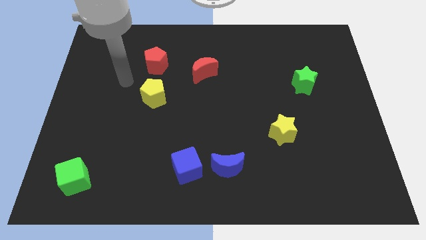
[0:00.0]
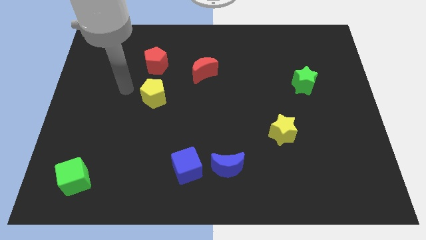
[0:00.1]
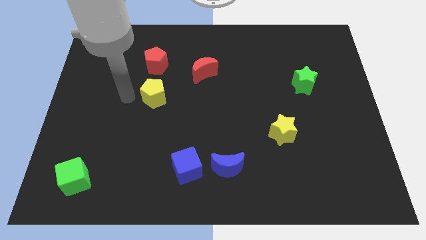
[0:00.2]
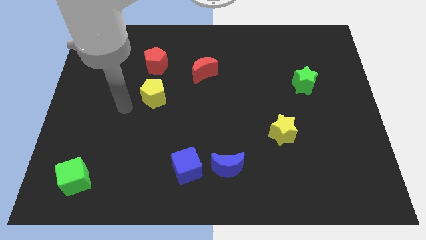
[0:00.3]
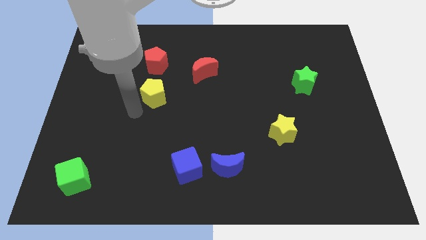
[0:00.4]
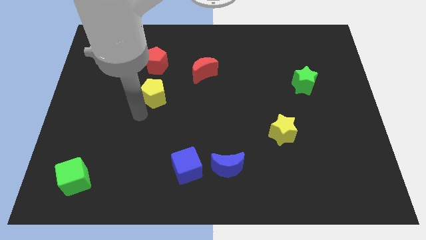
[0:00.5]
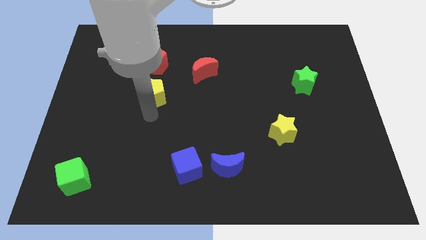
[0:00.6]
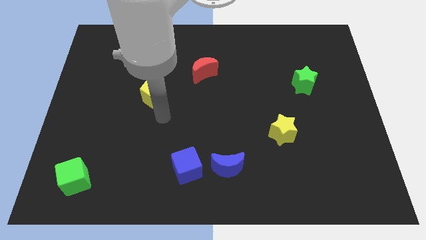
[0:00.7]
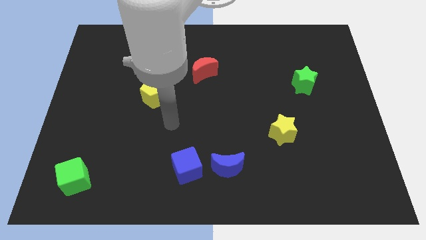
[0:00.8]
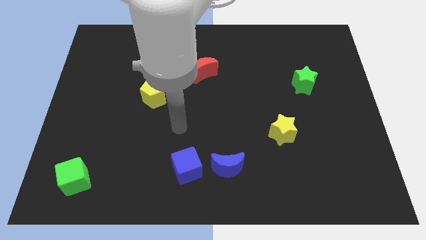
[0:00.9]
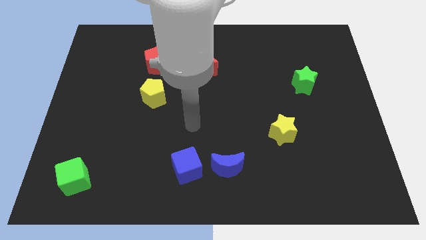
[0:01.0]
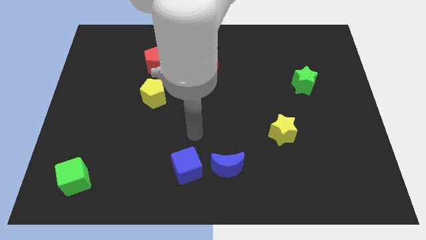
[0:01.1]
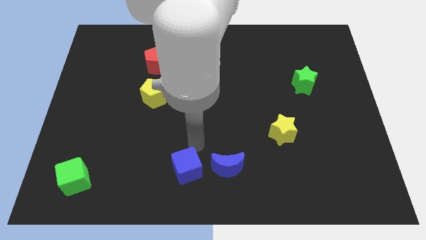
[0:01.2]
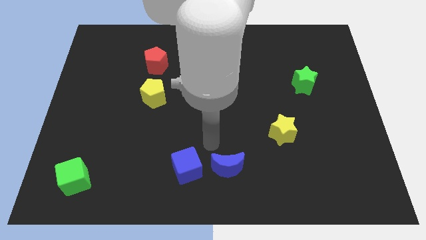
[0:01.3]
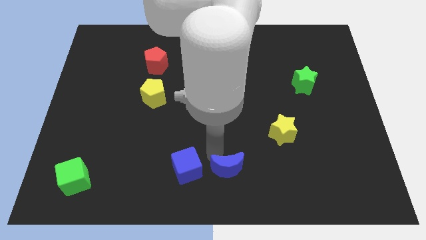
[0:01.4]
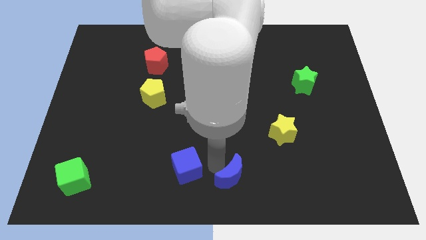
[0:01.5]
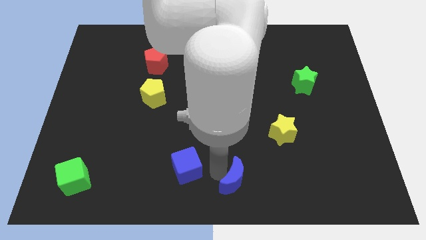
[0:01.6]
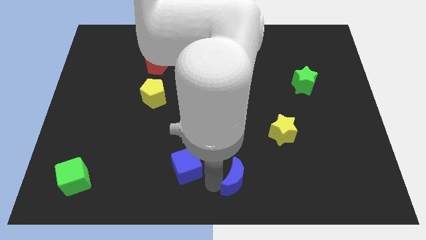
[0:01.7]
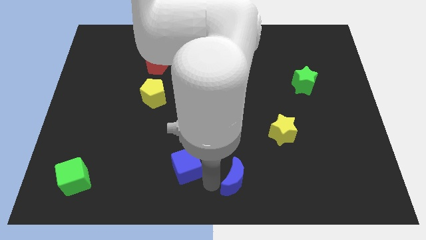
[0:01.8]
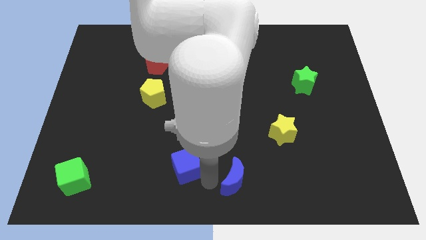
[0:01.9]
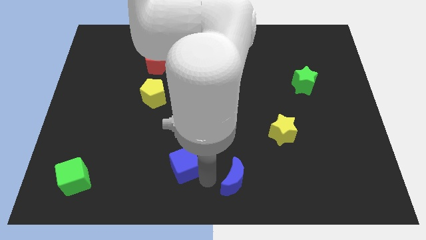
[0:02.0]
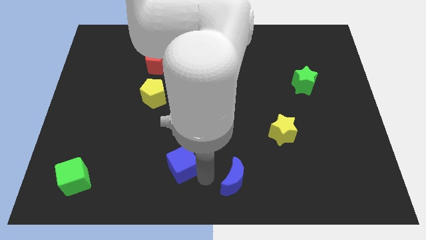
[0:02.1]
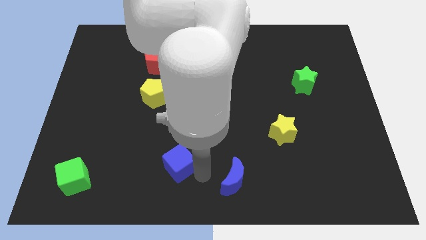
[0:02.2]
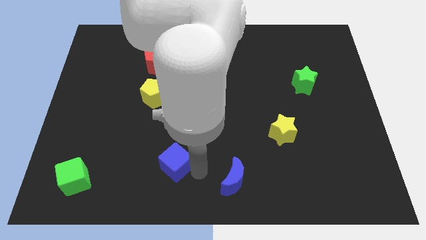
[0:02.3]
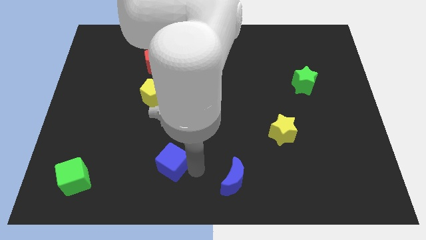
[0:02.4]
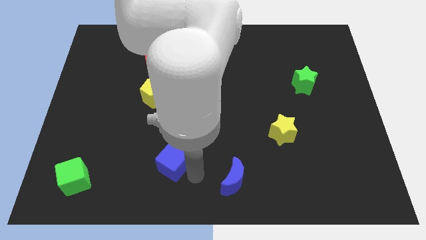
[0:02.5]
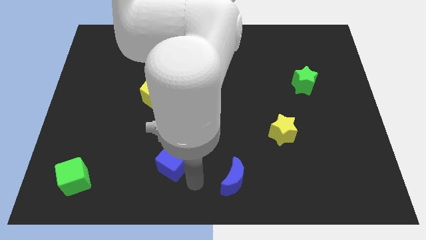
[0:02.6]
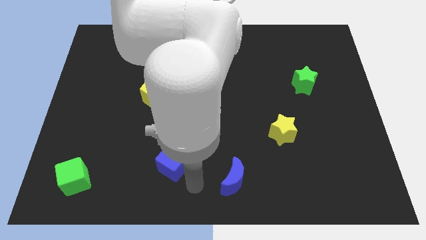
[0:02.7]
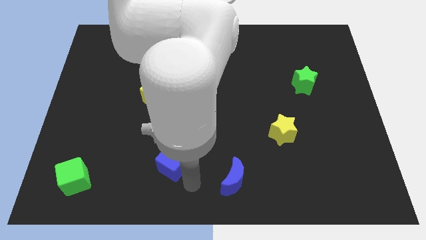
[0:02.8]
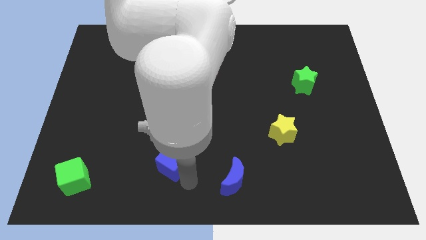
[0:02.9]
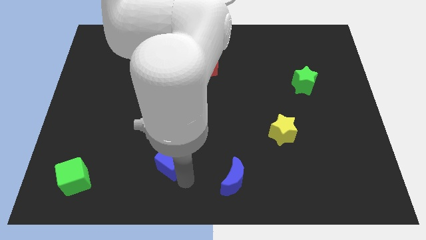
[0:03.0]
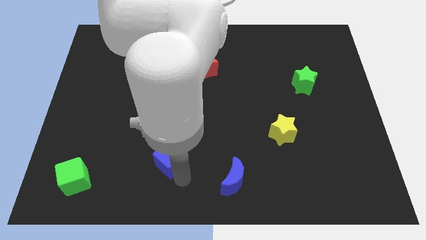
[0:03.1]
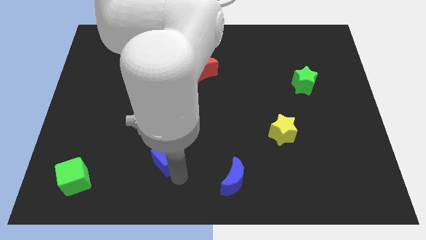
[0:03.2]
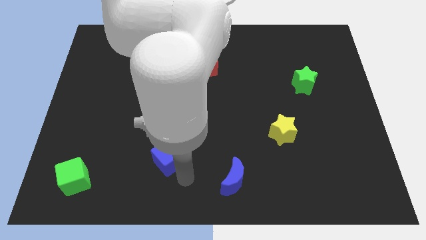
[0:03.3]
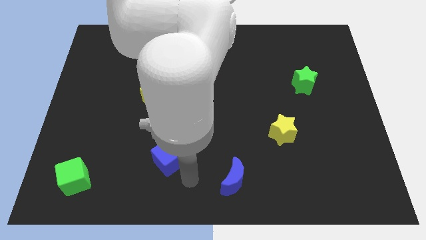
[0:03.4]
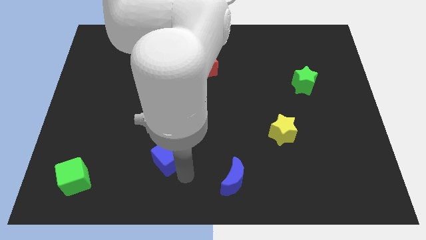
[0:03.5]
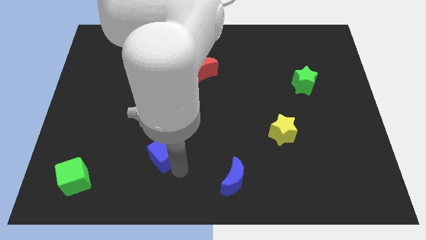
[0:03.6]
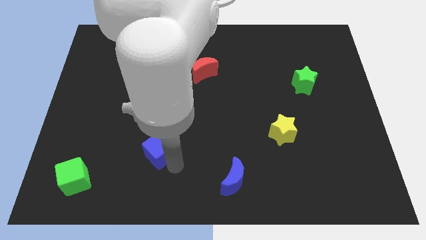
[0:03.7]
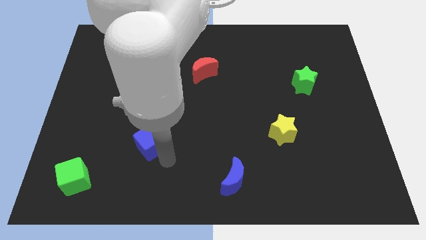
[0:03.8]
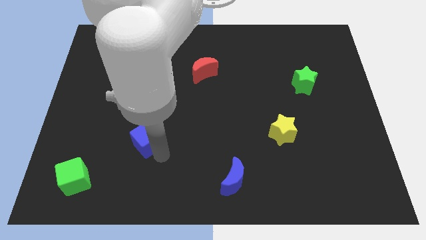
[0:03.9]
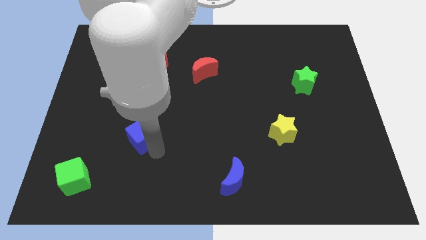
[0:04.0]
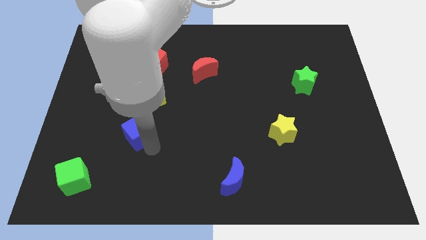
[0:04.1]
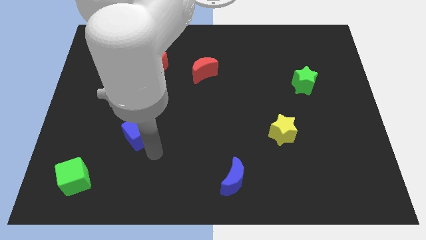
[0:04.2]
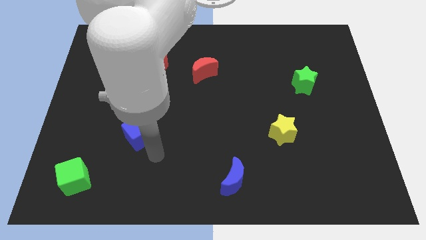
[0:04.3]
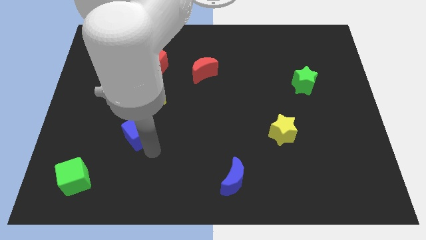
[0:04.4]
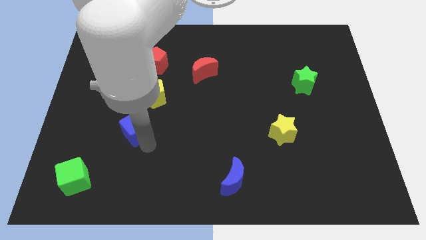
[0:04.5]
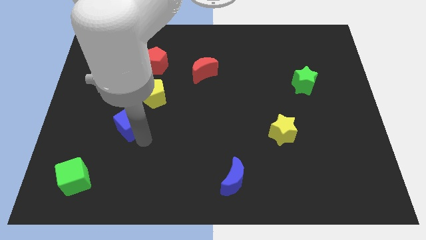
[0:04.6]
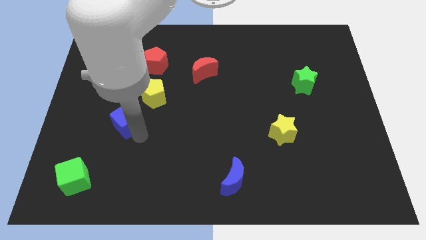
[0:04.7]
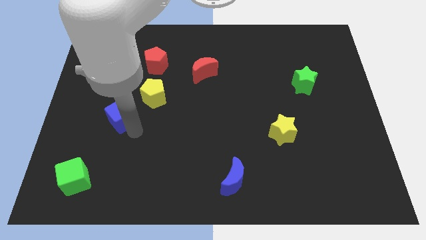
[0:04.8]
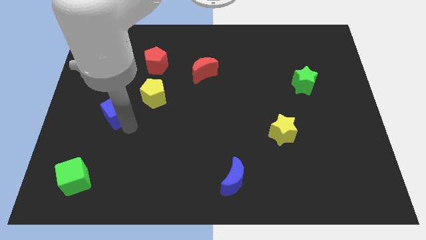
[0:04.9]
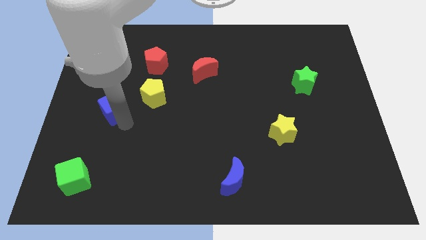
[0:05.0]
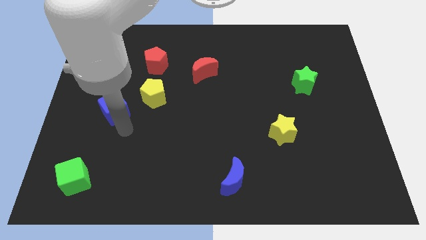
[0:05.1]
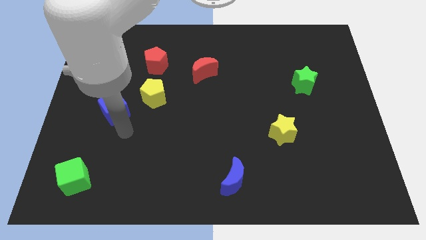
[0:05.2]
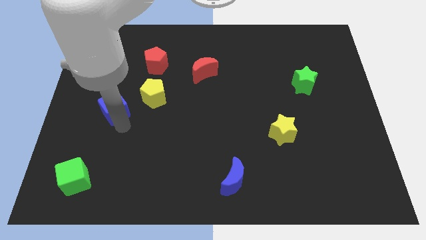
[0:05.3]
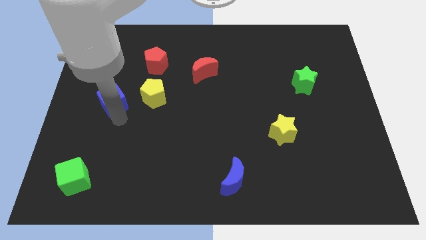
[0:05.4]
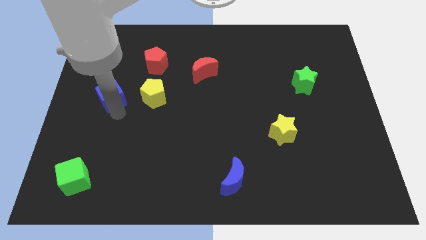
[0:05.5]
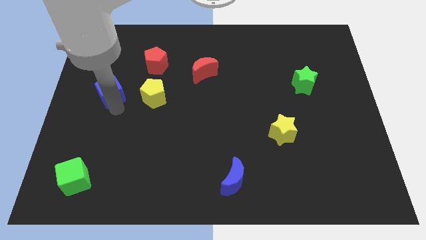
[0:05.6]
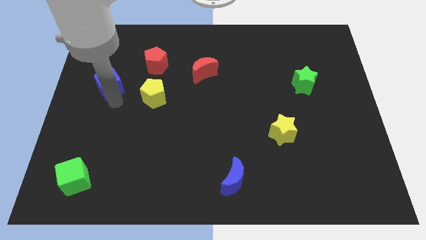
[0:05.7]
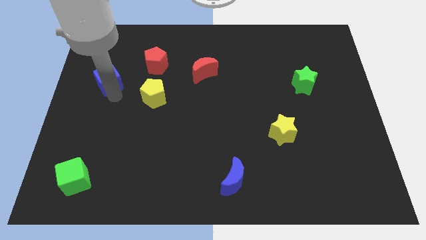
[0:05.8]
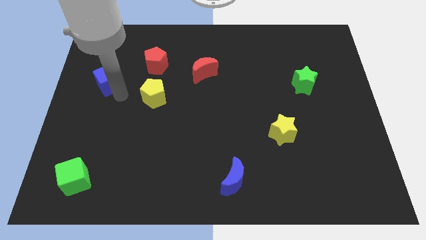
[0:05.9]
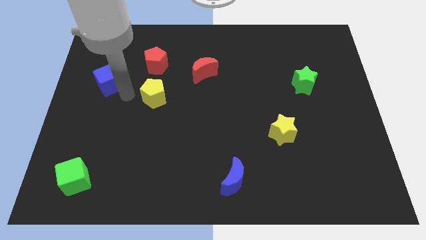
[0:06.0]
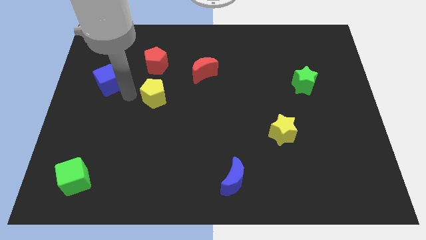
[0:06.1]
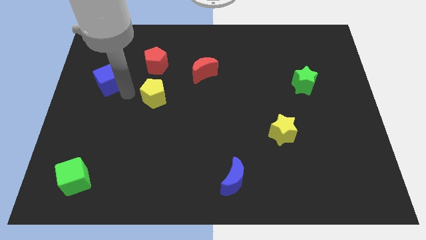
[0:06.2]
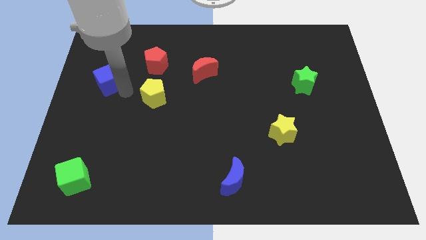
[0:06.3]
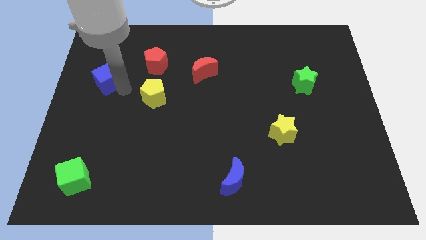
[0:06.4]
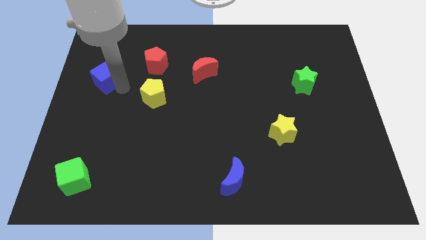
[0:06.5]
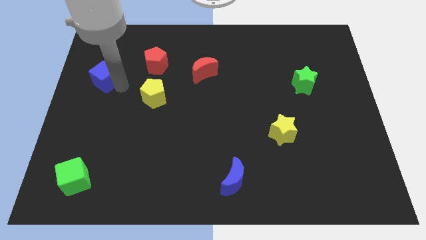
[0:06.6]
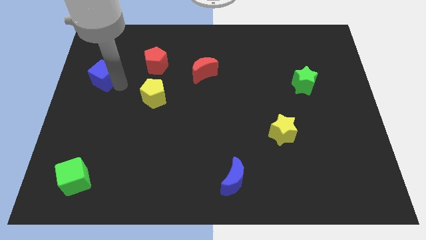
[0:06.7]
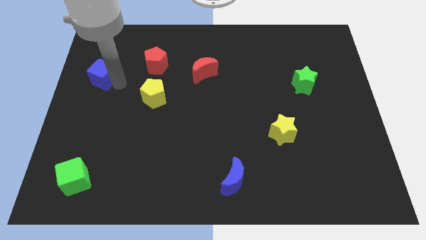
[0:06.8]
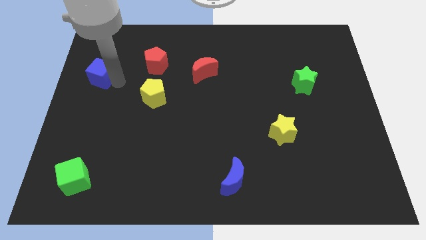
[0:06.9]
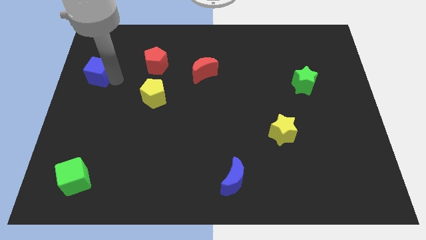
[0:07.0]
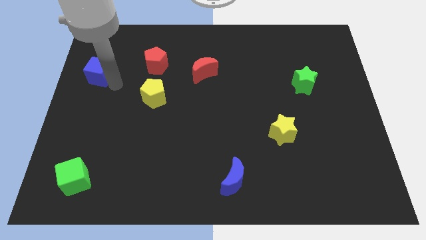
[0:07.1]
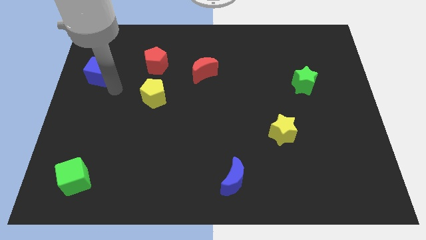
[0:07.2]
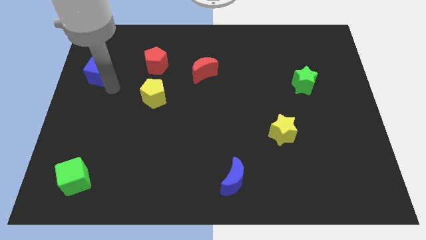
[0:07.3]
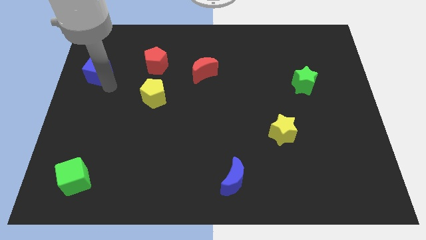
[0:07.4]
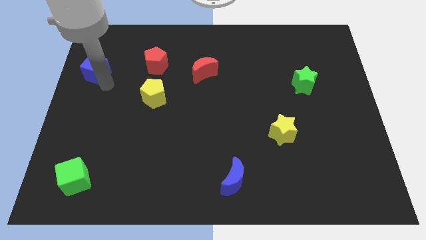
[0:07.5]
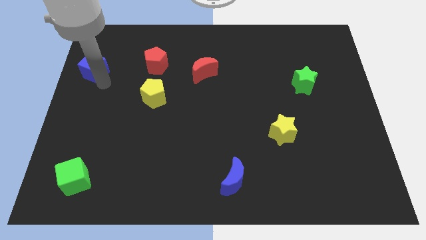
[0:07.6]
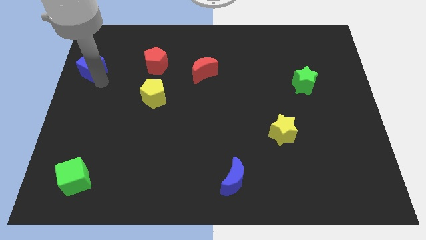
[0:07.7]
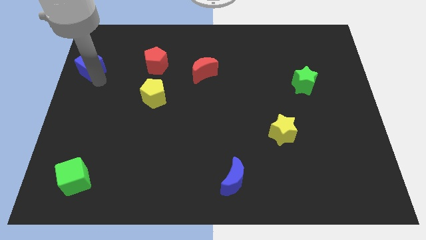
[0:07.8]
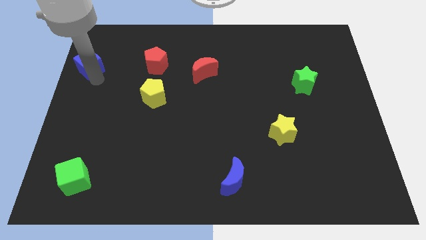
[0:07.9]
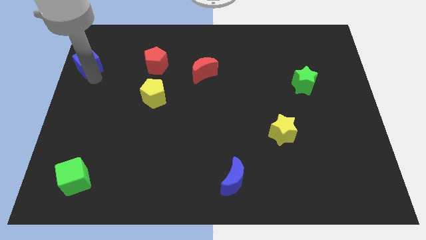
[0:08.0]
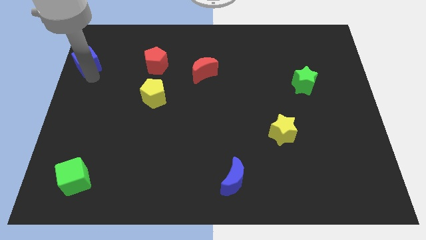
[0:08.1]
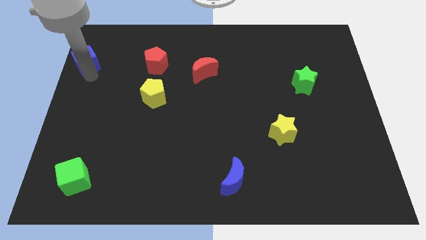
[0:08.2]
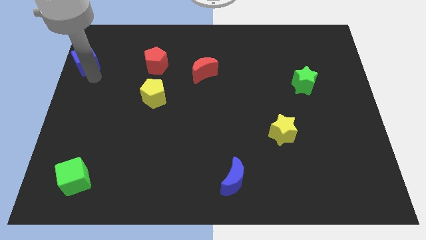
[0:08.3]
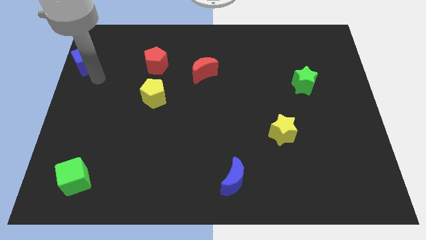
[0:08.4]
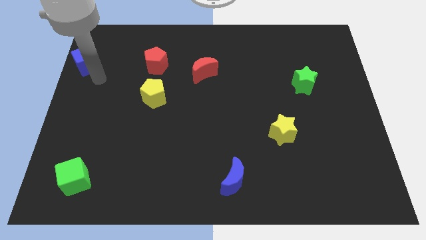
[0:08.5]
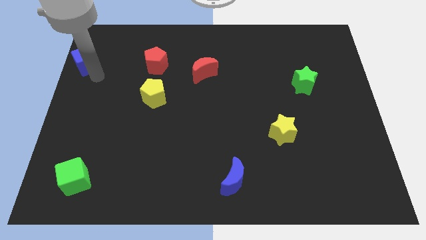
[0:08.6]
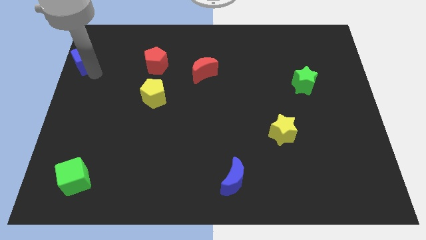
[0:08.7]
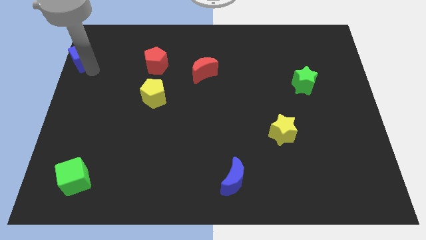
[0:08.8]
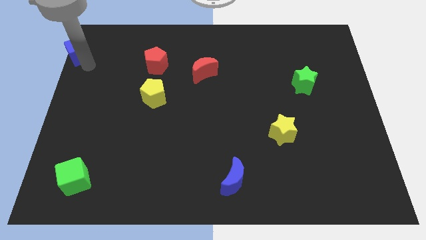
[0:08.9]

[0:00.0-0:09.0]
move the blue cube to the top left of the board
